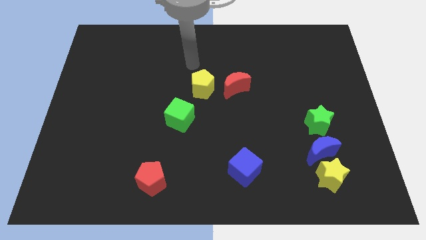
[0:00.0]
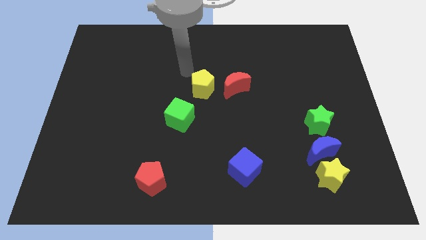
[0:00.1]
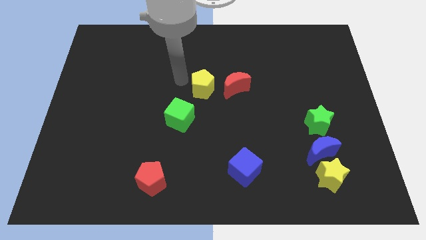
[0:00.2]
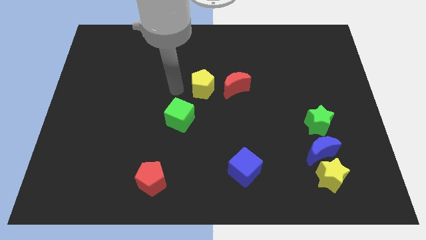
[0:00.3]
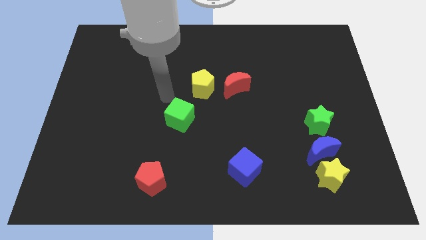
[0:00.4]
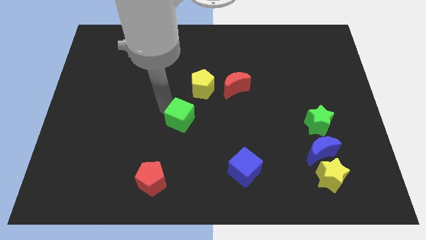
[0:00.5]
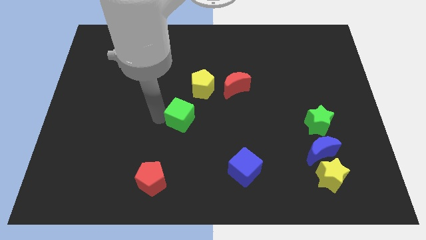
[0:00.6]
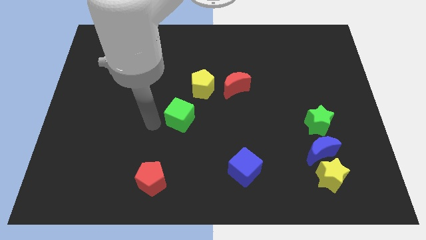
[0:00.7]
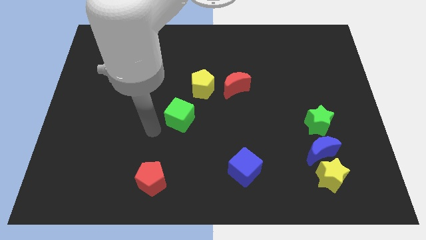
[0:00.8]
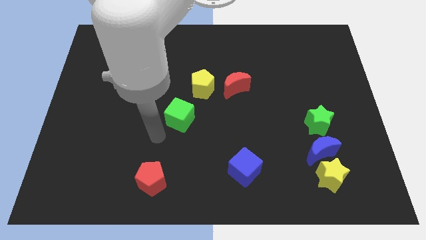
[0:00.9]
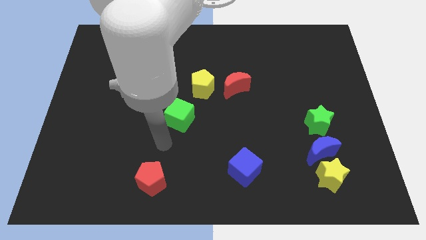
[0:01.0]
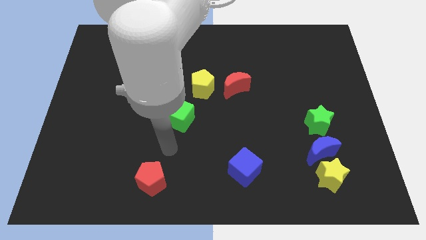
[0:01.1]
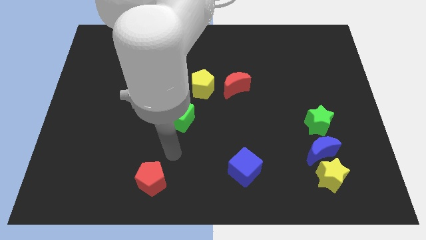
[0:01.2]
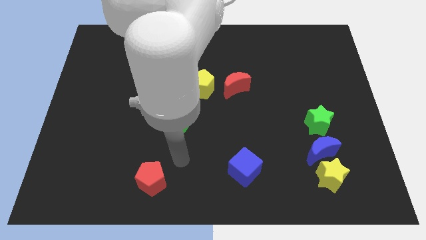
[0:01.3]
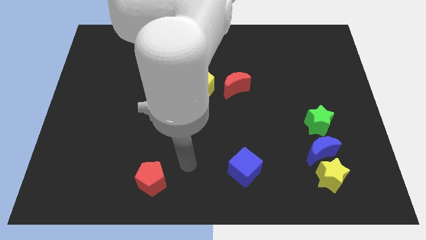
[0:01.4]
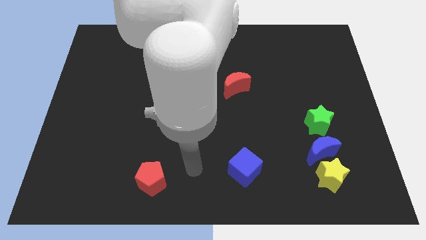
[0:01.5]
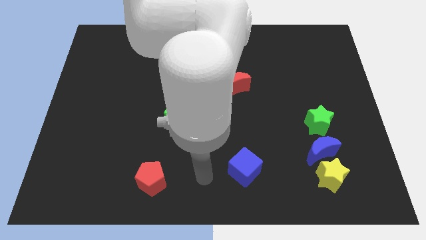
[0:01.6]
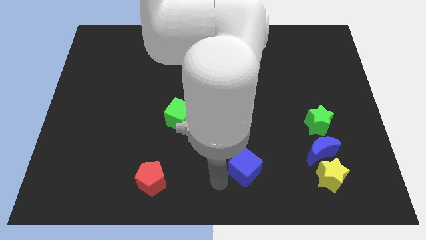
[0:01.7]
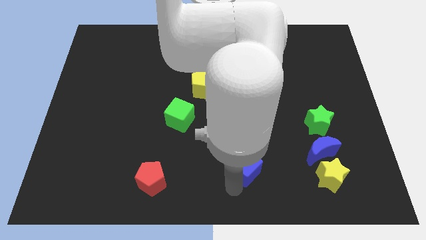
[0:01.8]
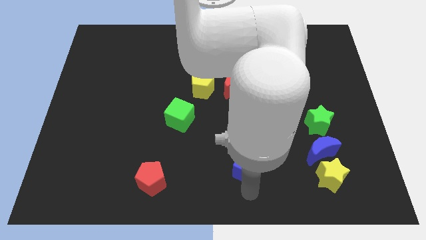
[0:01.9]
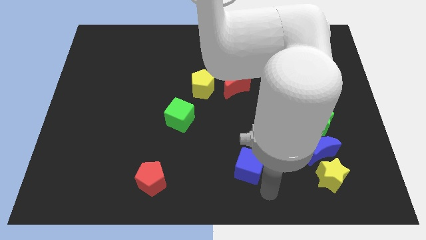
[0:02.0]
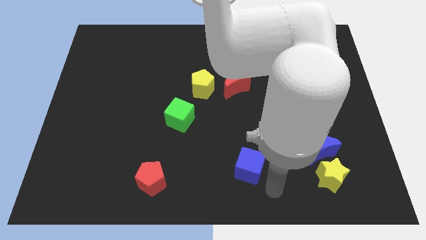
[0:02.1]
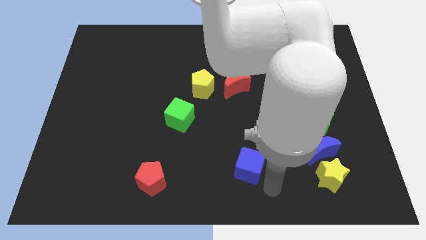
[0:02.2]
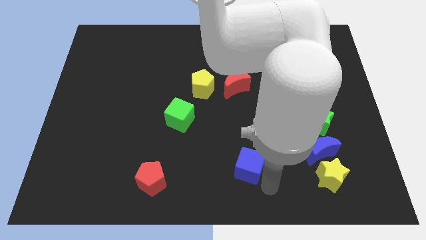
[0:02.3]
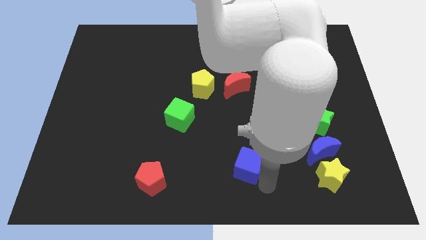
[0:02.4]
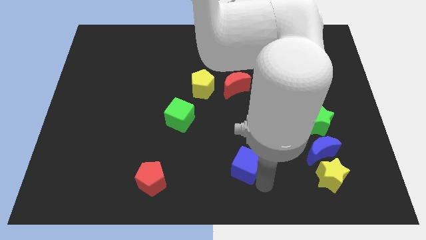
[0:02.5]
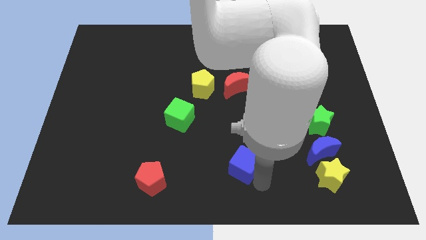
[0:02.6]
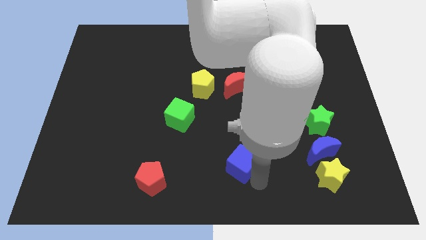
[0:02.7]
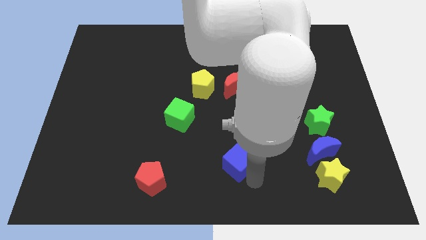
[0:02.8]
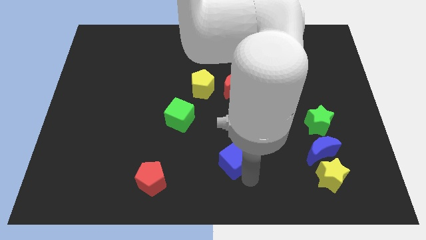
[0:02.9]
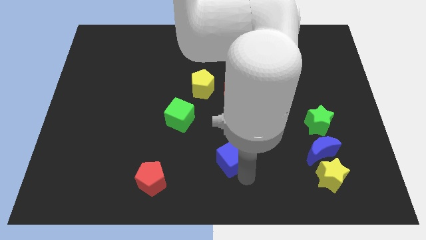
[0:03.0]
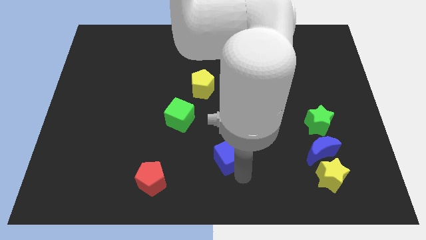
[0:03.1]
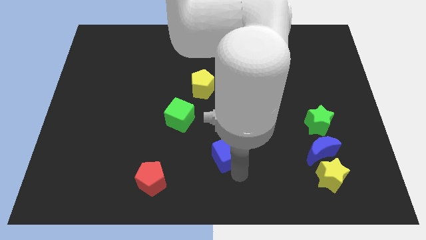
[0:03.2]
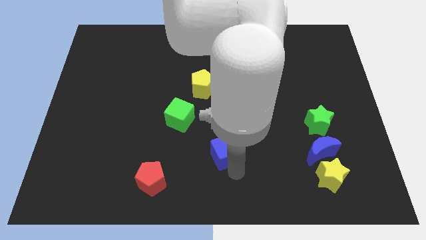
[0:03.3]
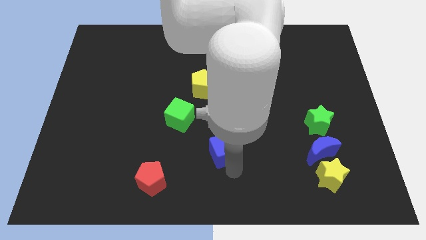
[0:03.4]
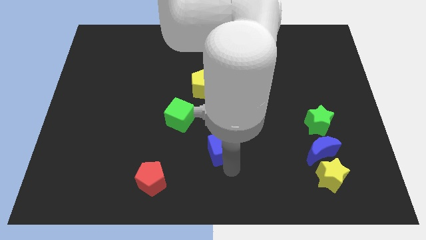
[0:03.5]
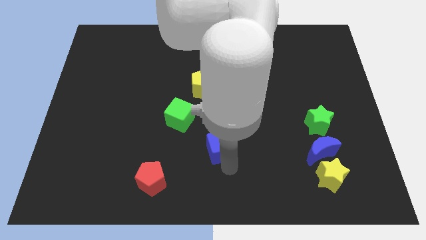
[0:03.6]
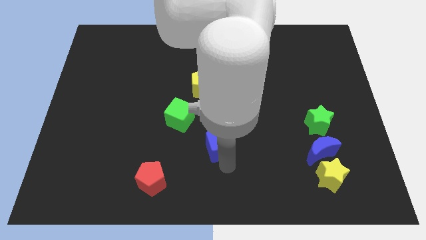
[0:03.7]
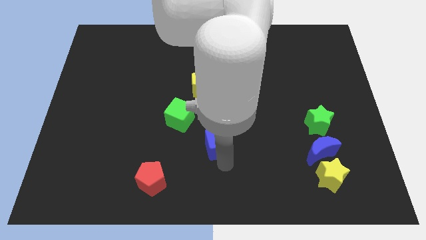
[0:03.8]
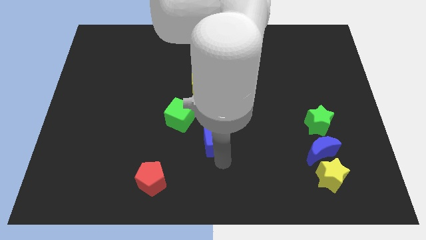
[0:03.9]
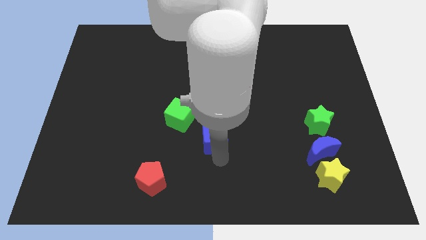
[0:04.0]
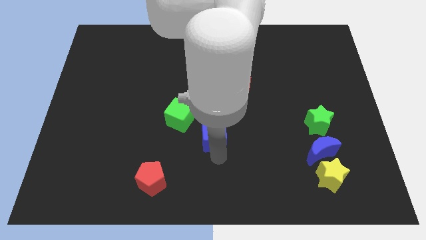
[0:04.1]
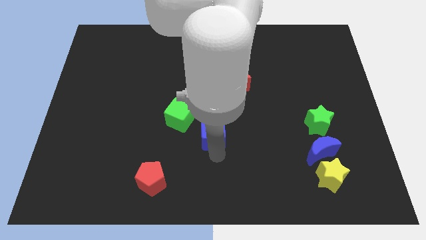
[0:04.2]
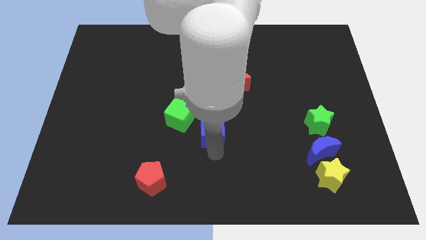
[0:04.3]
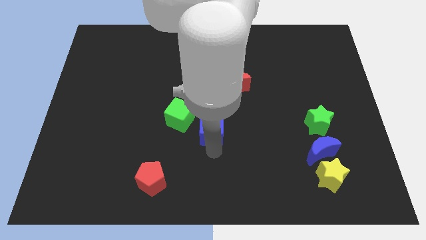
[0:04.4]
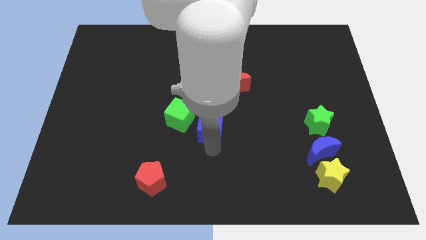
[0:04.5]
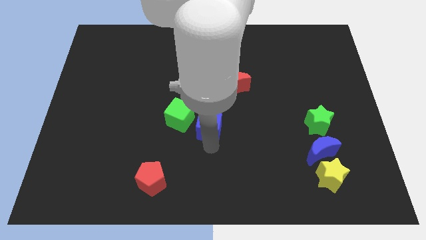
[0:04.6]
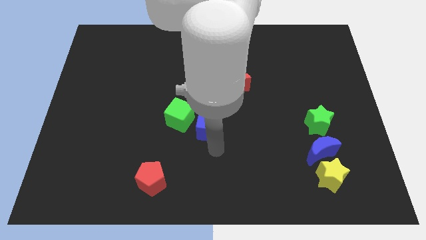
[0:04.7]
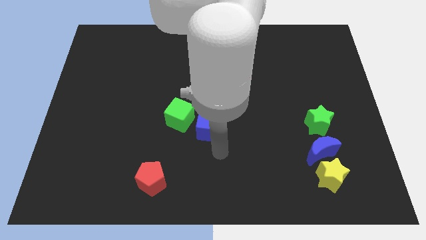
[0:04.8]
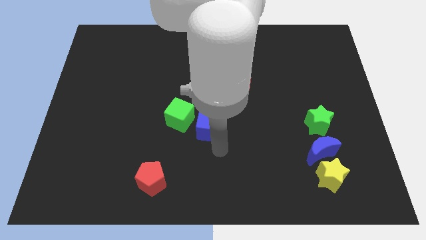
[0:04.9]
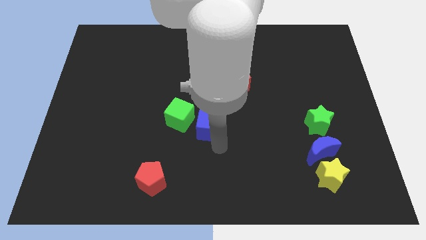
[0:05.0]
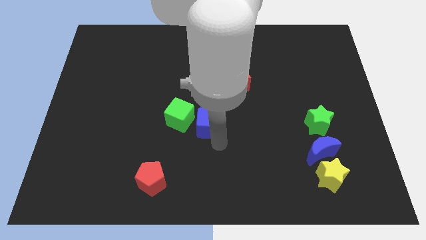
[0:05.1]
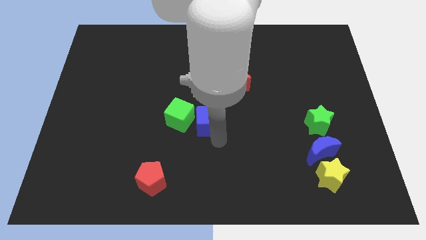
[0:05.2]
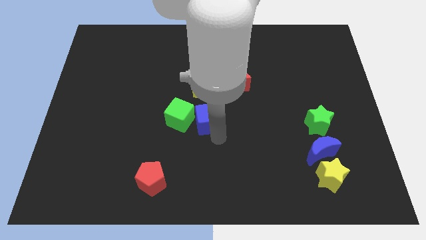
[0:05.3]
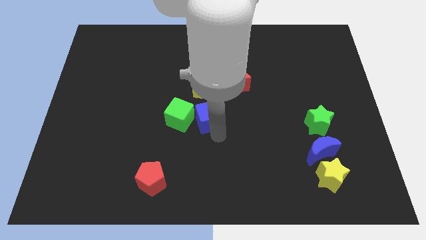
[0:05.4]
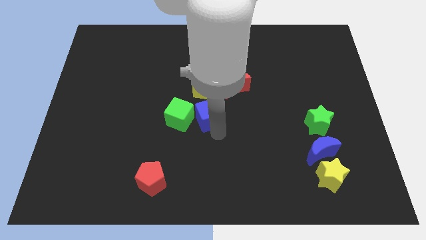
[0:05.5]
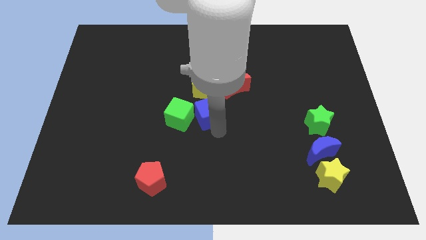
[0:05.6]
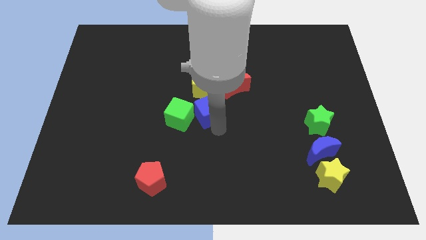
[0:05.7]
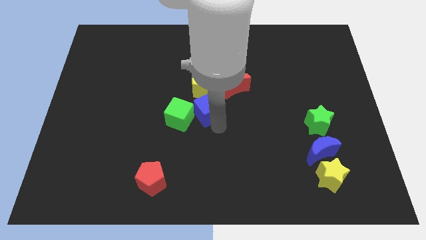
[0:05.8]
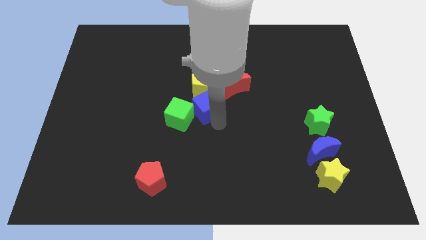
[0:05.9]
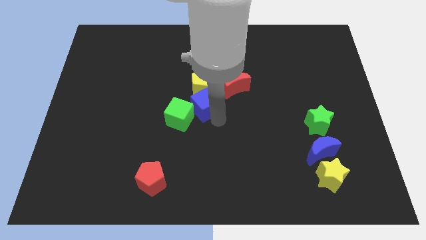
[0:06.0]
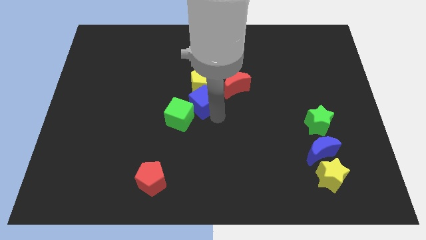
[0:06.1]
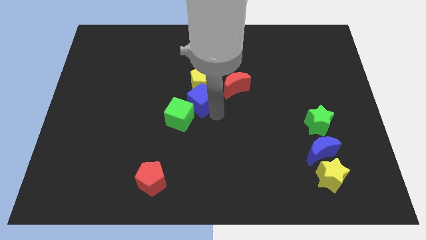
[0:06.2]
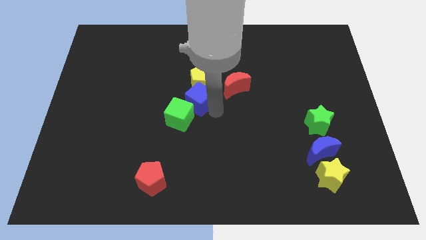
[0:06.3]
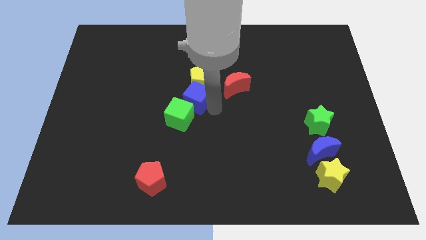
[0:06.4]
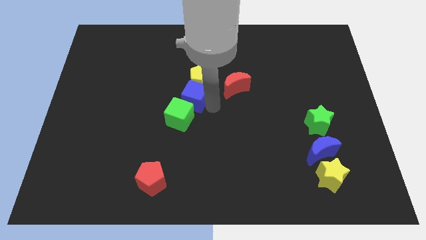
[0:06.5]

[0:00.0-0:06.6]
move the blue cube upwards and left

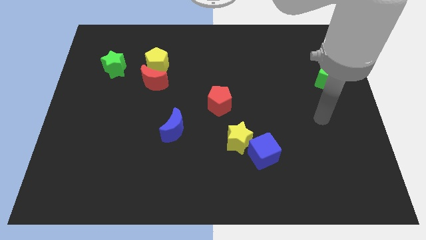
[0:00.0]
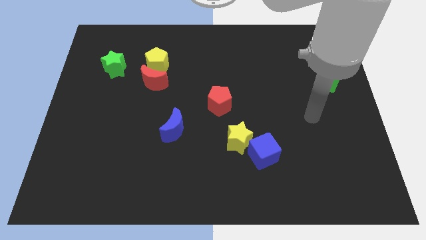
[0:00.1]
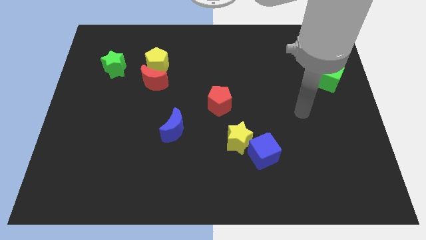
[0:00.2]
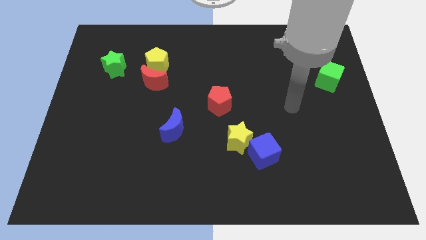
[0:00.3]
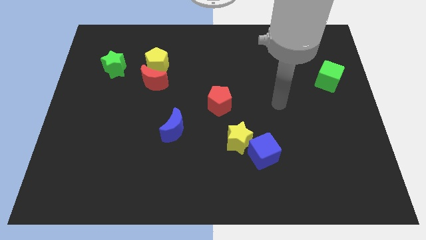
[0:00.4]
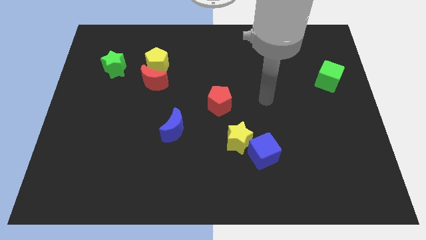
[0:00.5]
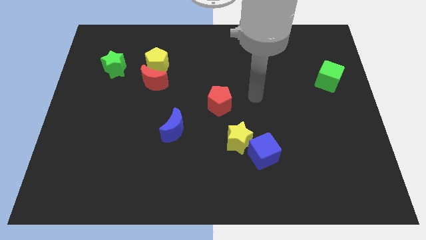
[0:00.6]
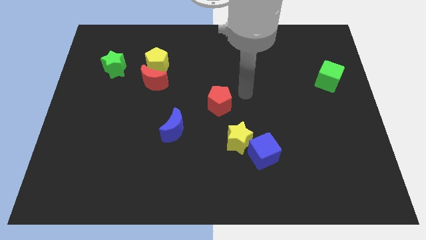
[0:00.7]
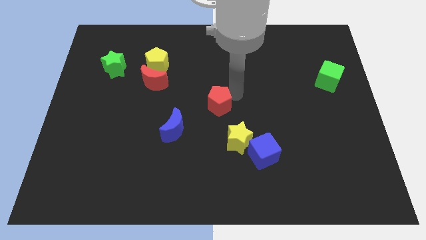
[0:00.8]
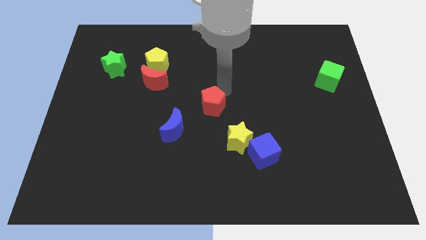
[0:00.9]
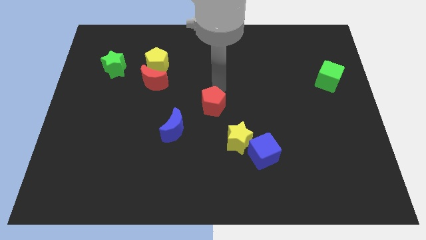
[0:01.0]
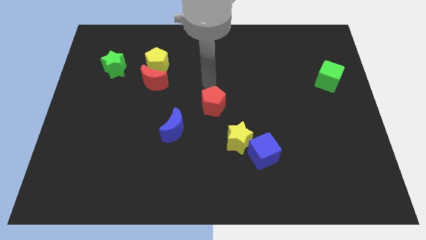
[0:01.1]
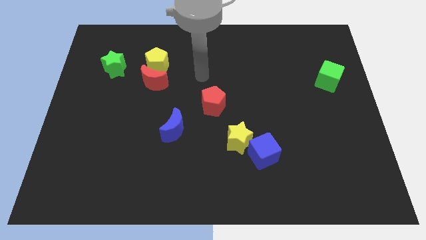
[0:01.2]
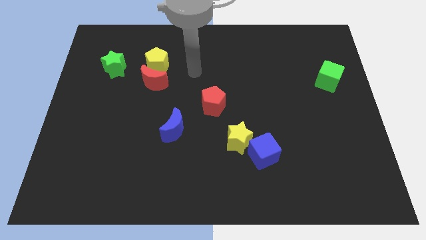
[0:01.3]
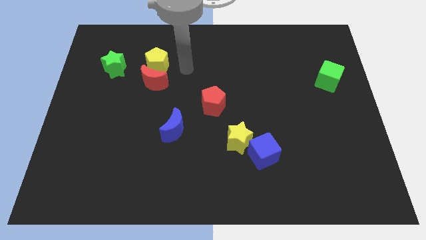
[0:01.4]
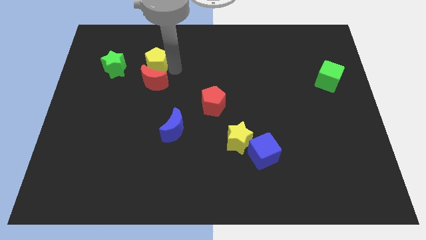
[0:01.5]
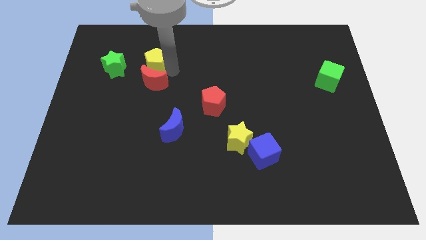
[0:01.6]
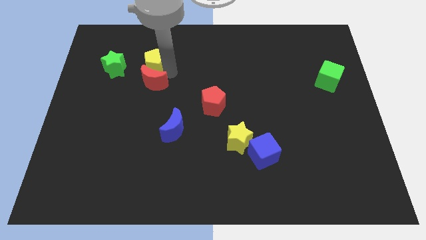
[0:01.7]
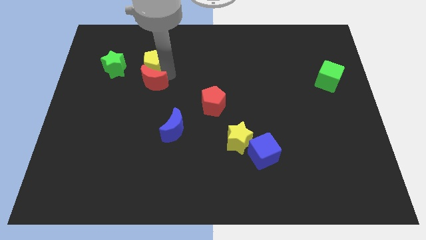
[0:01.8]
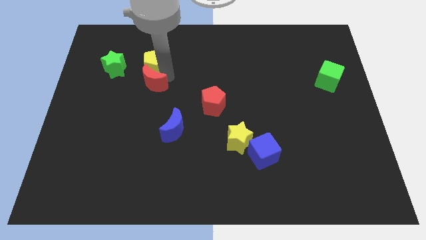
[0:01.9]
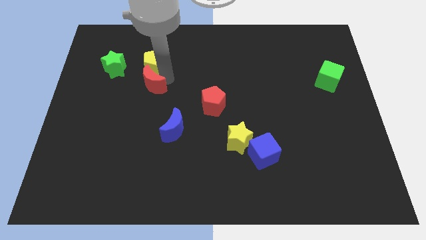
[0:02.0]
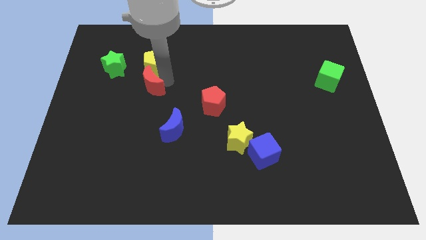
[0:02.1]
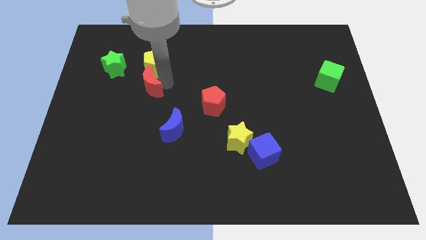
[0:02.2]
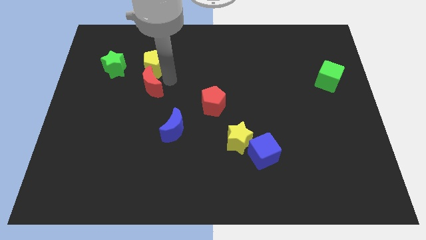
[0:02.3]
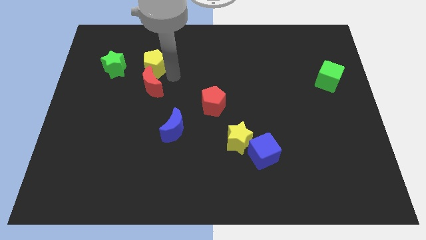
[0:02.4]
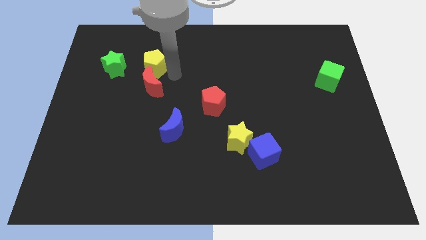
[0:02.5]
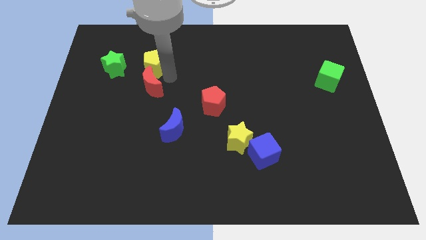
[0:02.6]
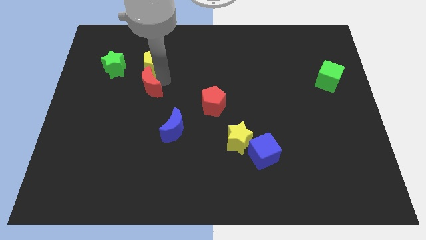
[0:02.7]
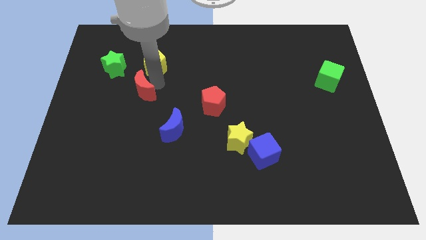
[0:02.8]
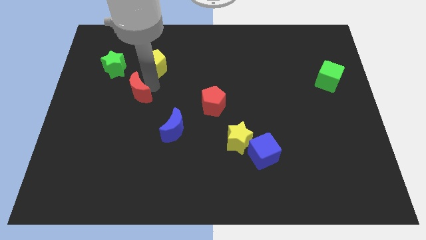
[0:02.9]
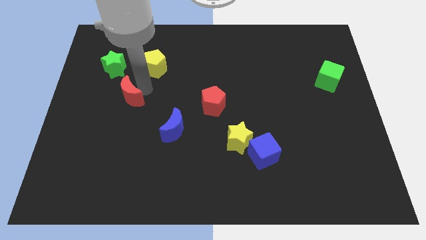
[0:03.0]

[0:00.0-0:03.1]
move the red moon somewhat downwards and then to the left
